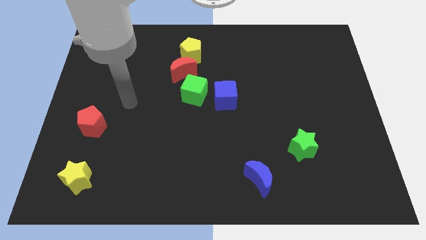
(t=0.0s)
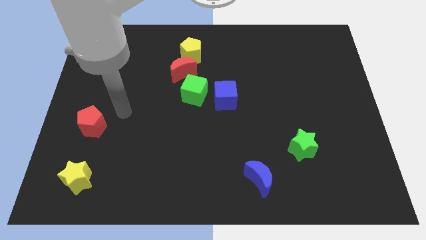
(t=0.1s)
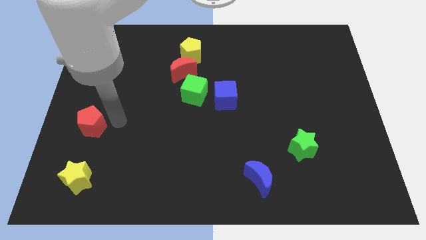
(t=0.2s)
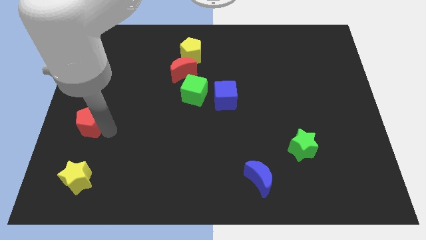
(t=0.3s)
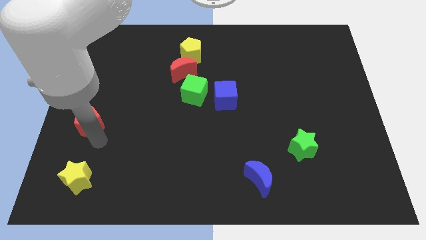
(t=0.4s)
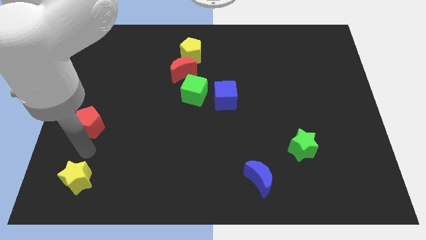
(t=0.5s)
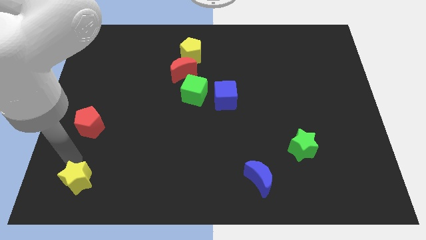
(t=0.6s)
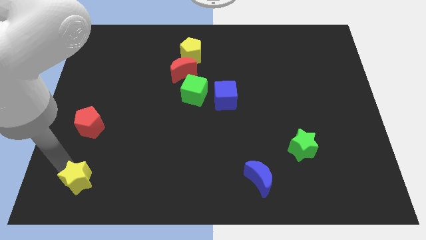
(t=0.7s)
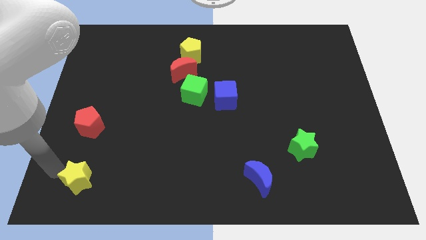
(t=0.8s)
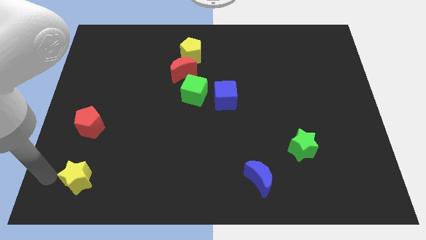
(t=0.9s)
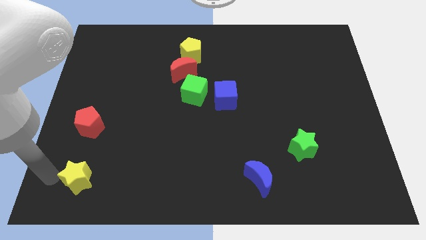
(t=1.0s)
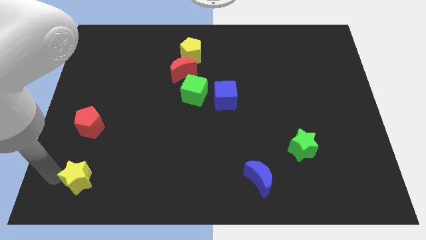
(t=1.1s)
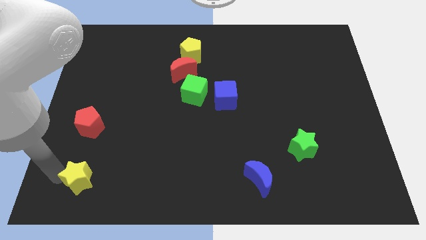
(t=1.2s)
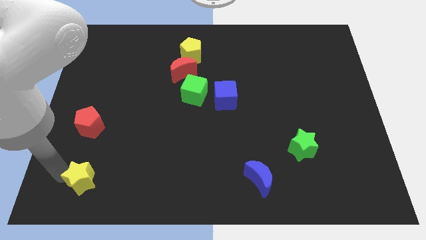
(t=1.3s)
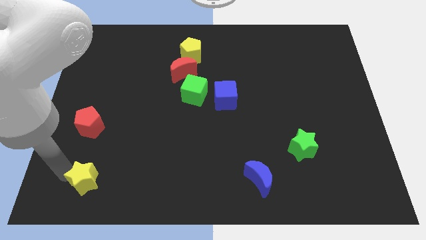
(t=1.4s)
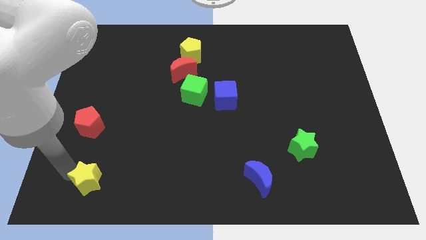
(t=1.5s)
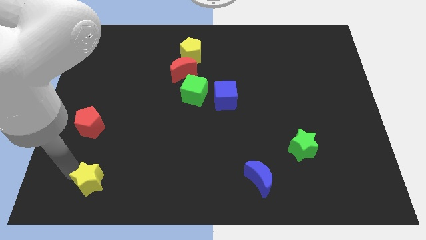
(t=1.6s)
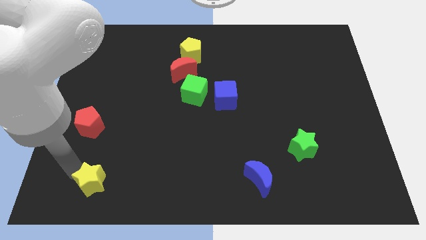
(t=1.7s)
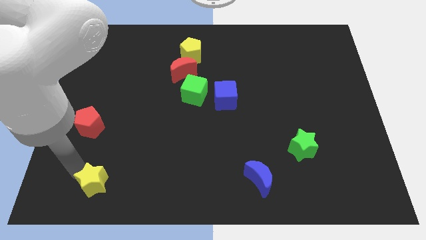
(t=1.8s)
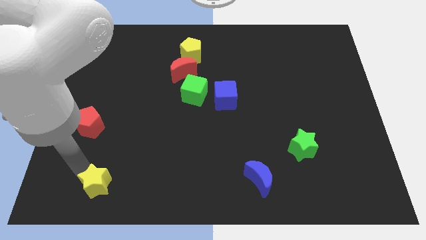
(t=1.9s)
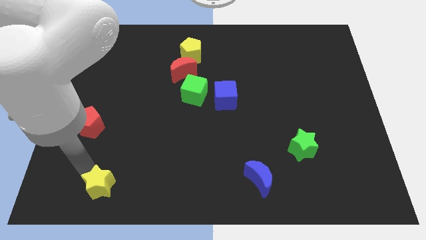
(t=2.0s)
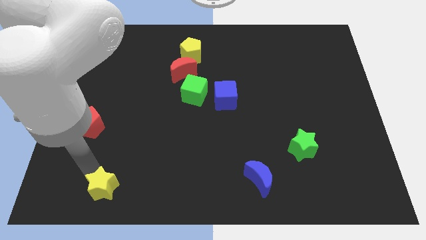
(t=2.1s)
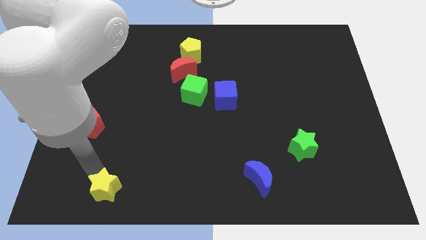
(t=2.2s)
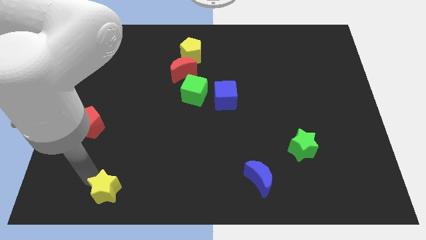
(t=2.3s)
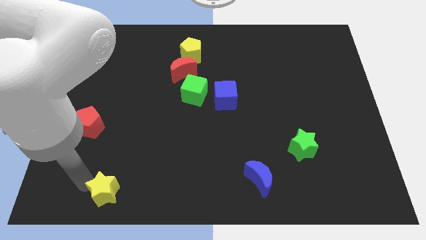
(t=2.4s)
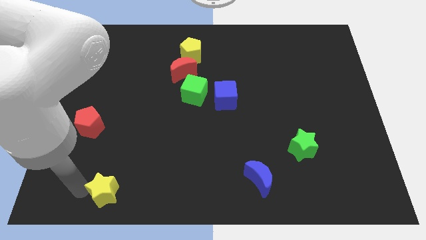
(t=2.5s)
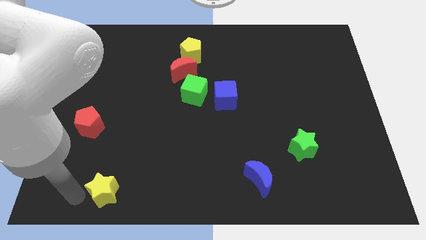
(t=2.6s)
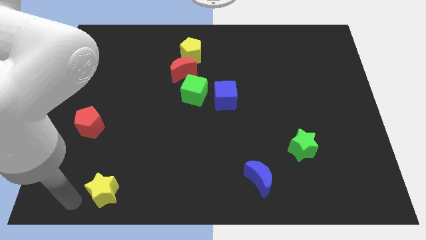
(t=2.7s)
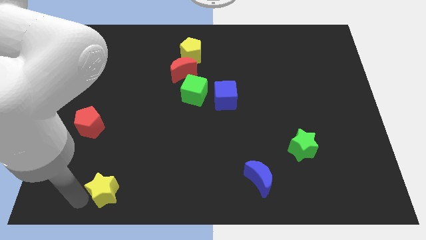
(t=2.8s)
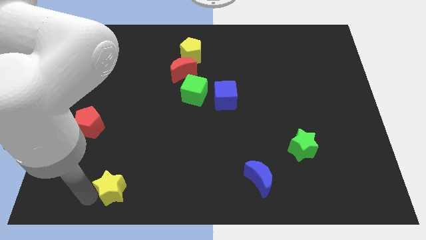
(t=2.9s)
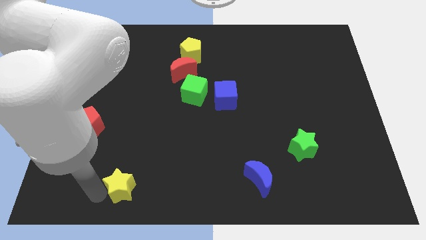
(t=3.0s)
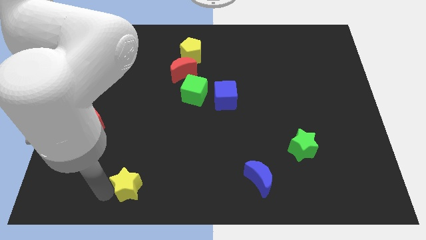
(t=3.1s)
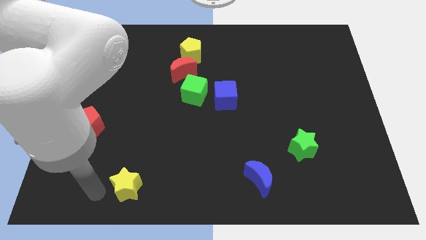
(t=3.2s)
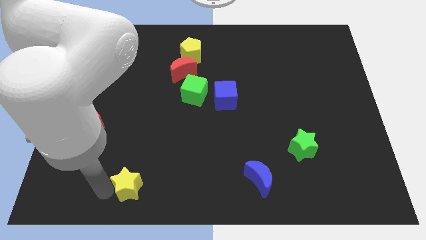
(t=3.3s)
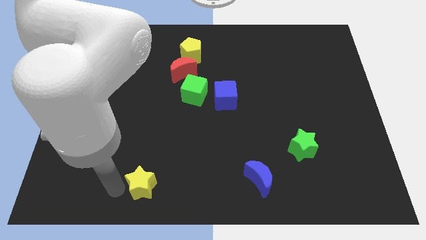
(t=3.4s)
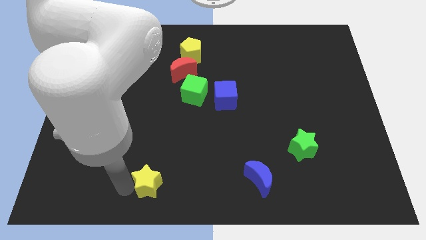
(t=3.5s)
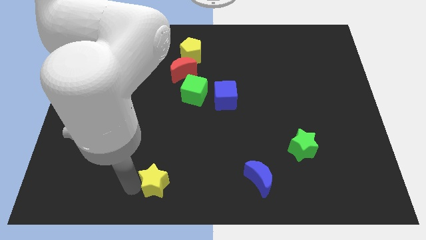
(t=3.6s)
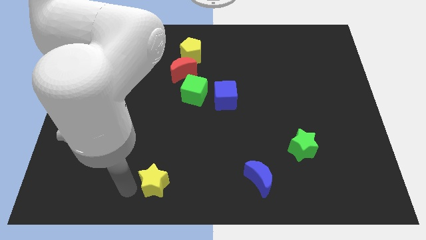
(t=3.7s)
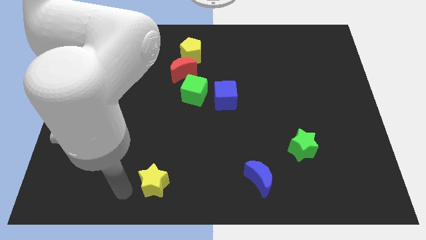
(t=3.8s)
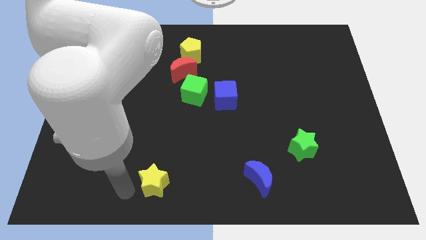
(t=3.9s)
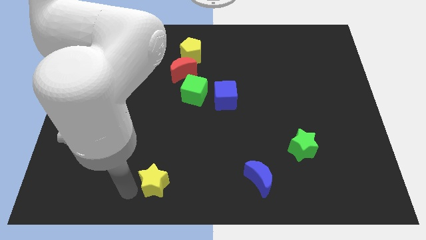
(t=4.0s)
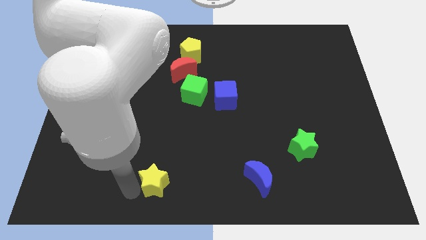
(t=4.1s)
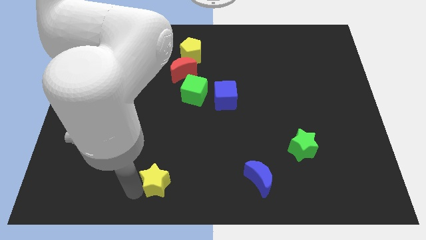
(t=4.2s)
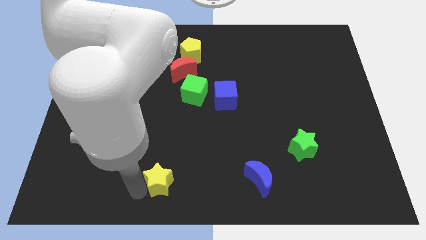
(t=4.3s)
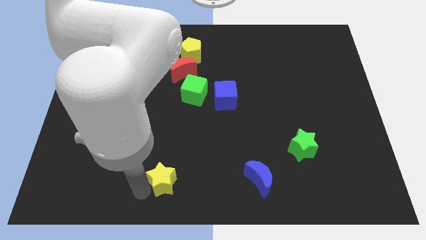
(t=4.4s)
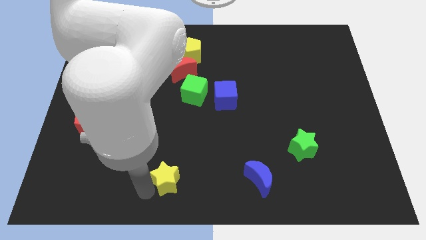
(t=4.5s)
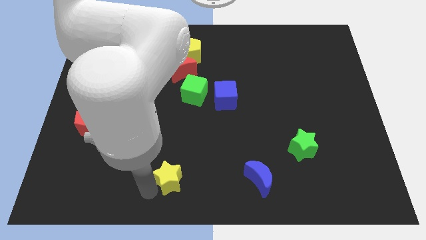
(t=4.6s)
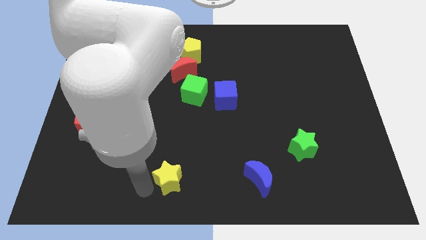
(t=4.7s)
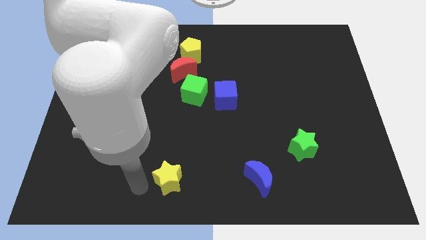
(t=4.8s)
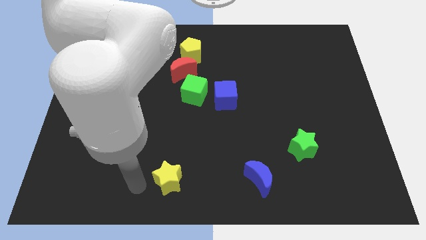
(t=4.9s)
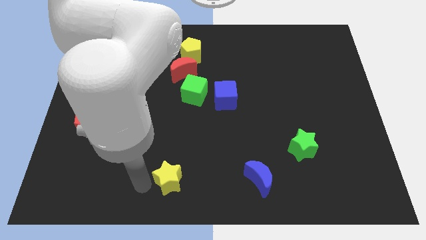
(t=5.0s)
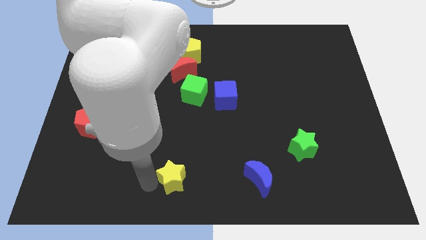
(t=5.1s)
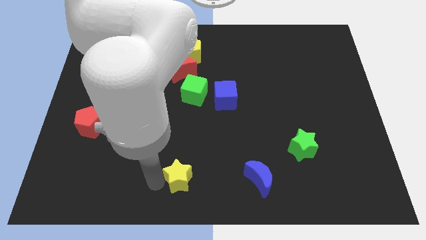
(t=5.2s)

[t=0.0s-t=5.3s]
push the yellow star to the right

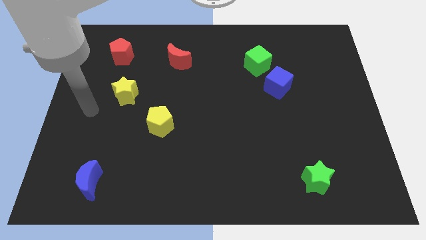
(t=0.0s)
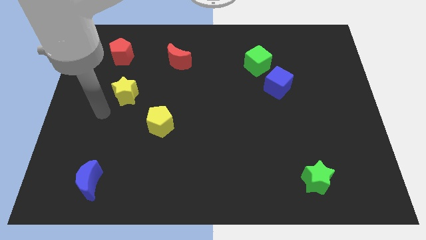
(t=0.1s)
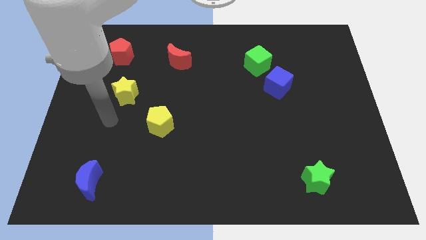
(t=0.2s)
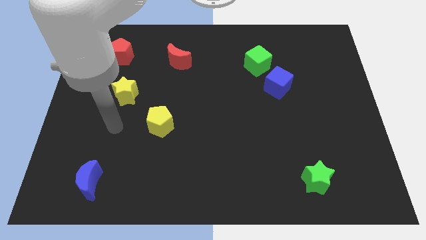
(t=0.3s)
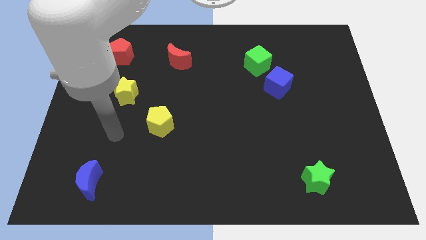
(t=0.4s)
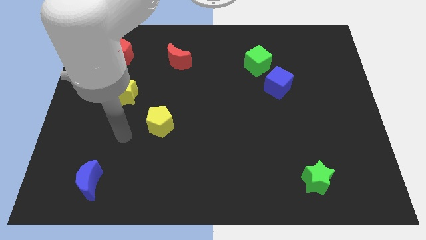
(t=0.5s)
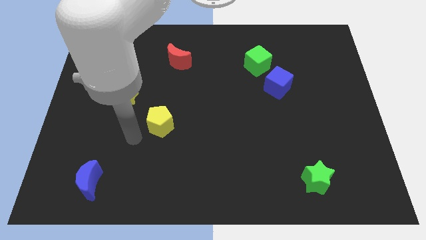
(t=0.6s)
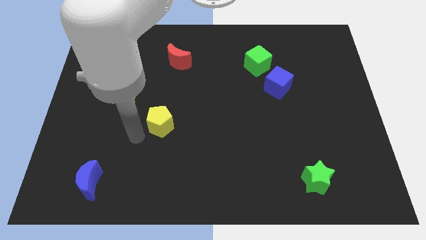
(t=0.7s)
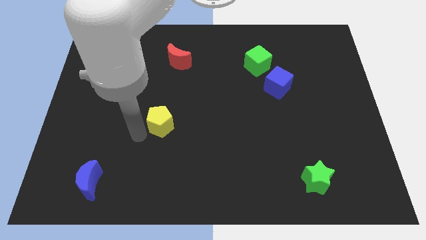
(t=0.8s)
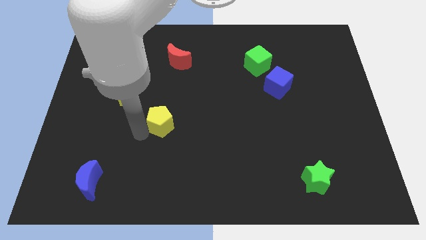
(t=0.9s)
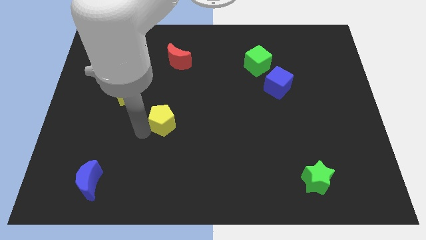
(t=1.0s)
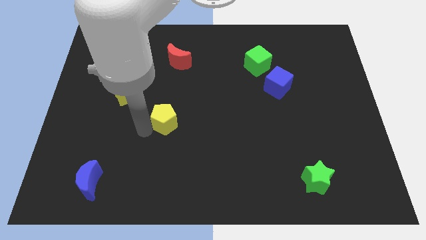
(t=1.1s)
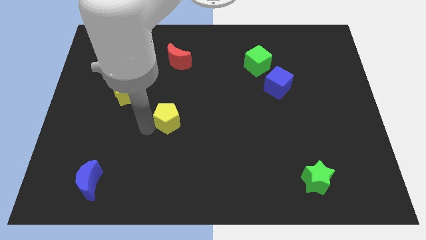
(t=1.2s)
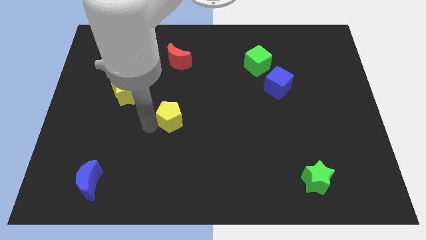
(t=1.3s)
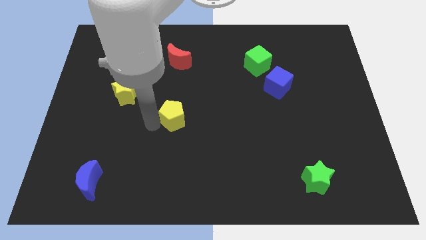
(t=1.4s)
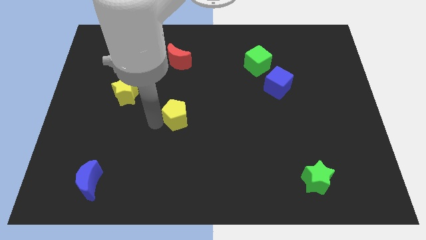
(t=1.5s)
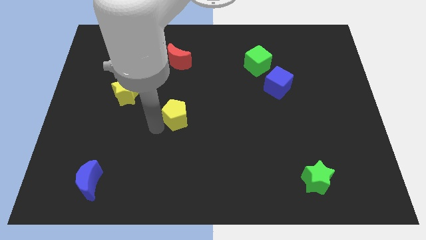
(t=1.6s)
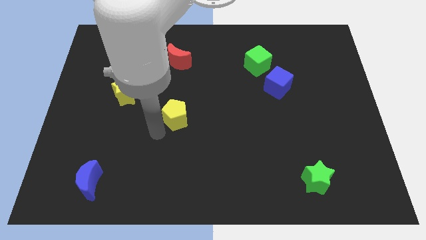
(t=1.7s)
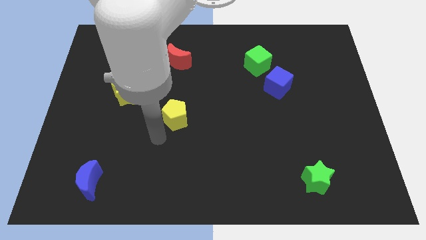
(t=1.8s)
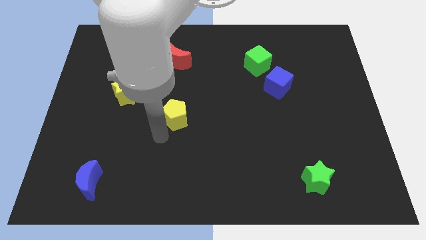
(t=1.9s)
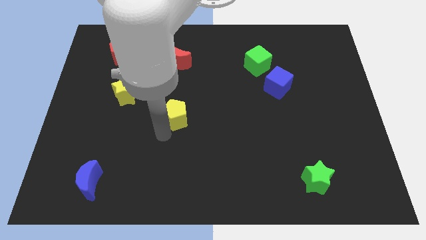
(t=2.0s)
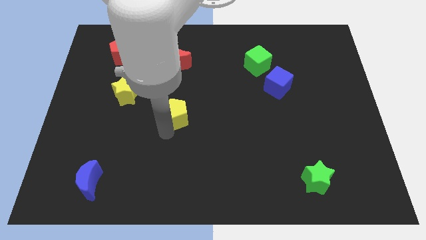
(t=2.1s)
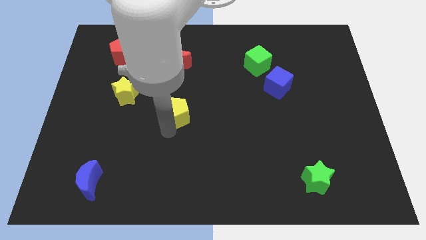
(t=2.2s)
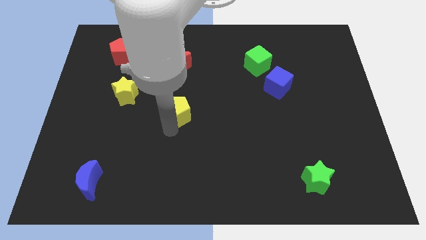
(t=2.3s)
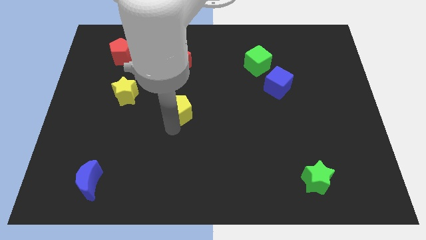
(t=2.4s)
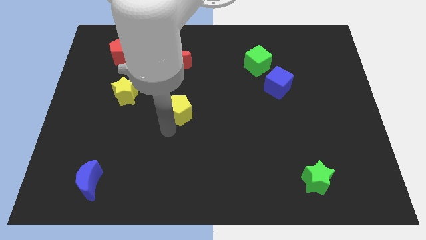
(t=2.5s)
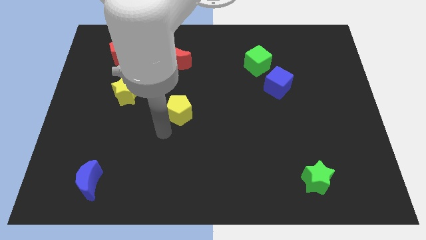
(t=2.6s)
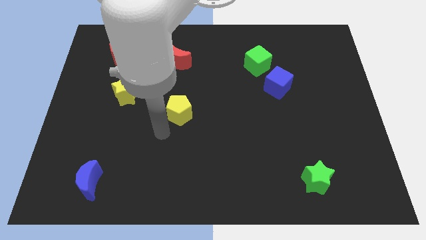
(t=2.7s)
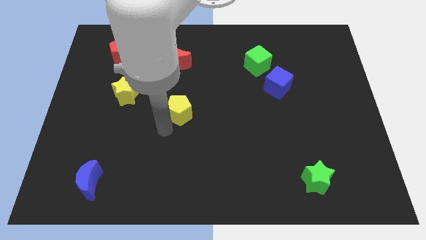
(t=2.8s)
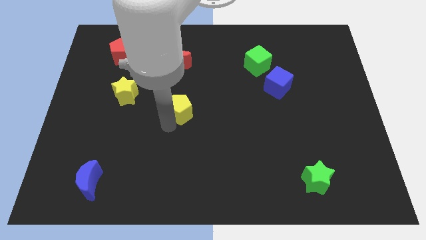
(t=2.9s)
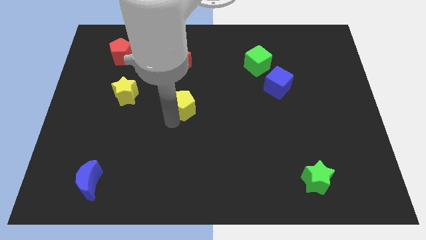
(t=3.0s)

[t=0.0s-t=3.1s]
slightly slide the yellow pentagon up and then right
